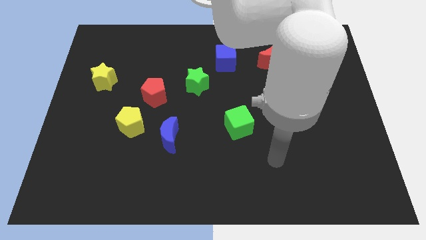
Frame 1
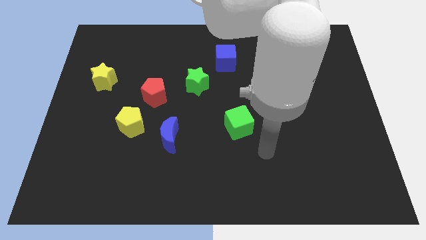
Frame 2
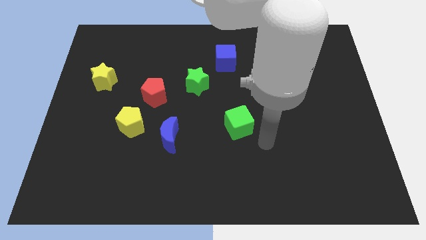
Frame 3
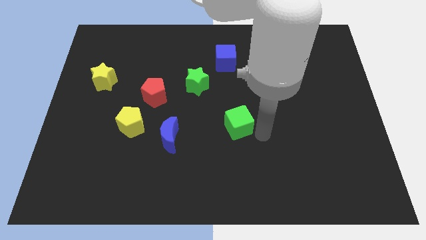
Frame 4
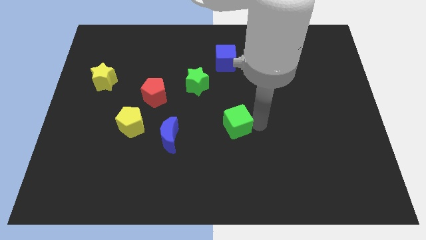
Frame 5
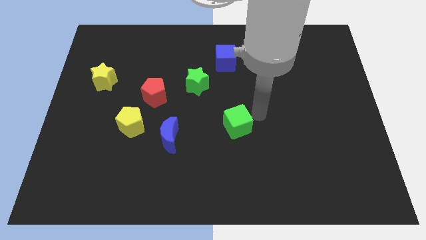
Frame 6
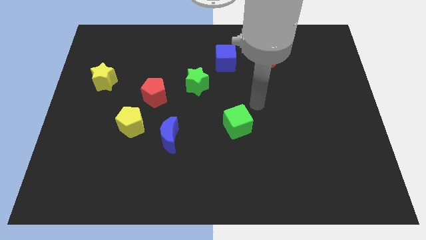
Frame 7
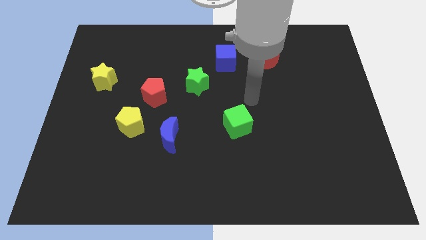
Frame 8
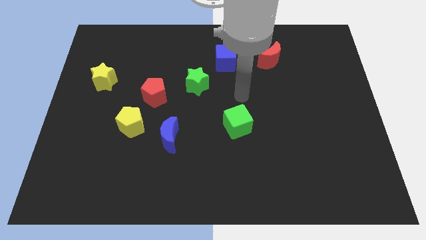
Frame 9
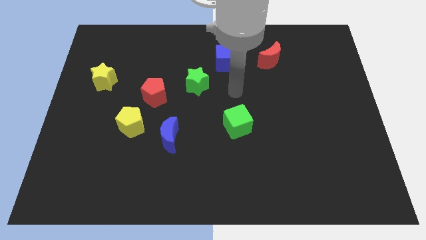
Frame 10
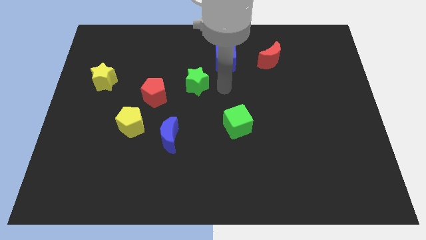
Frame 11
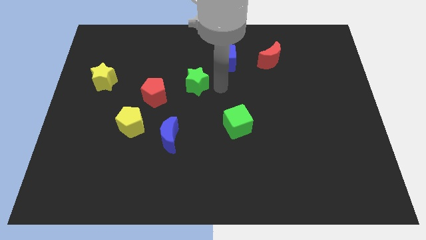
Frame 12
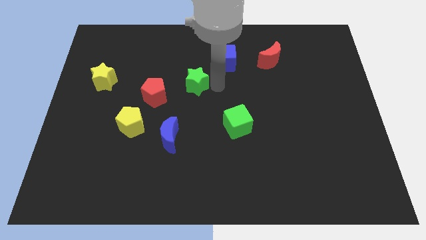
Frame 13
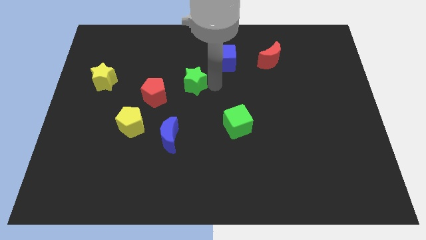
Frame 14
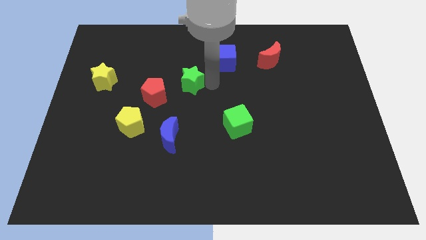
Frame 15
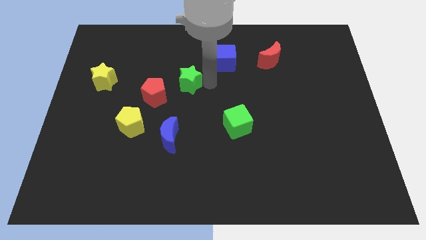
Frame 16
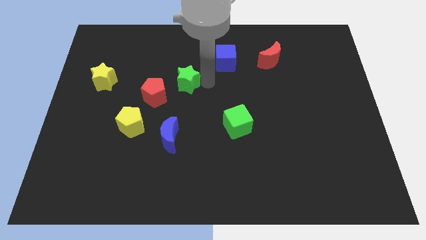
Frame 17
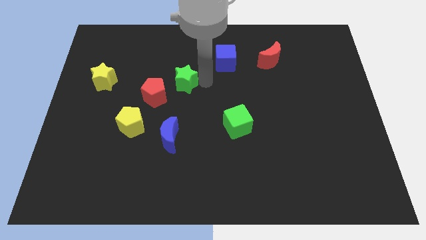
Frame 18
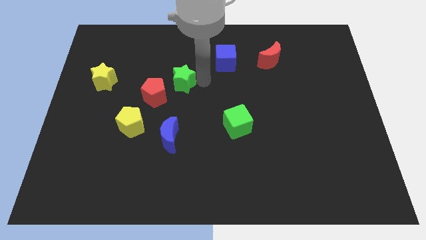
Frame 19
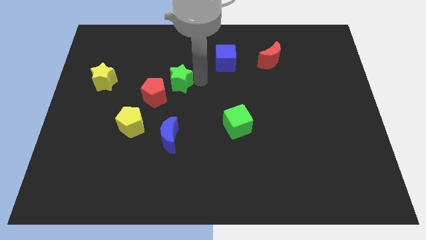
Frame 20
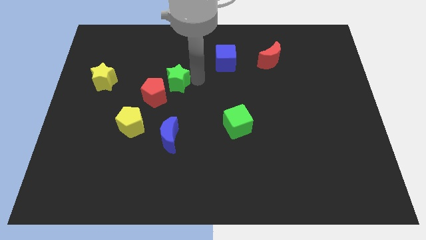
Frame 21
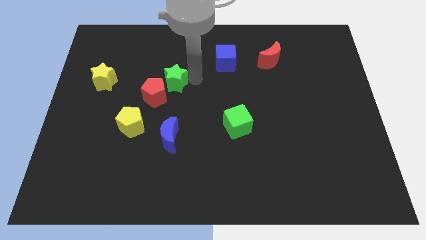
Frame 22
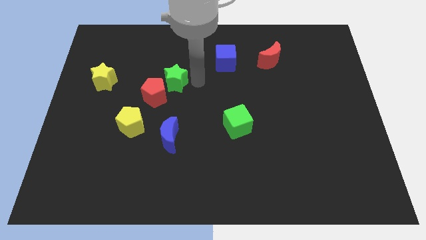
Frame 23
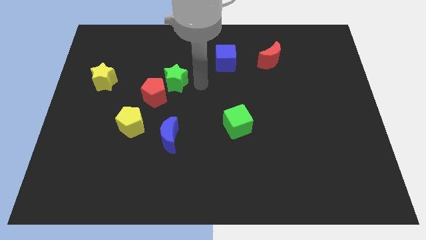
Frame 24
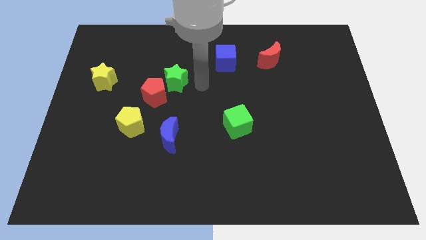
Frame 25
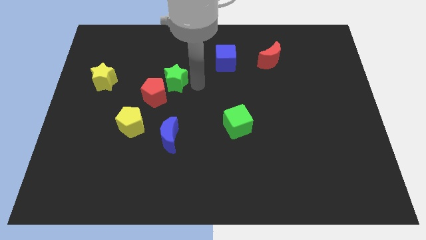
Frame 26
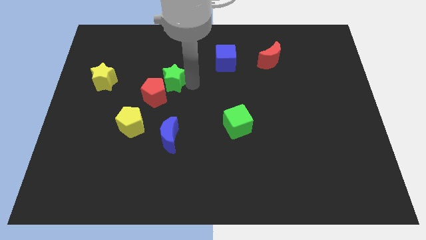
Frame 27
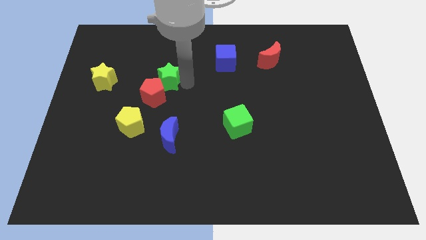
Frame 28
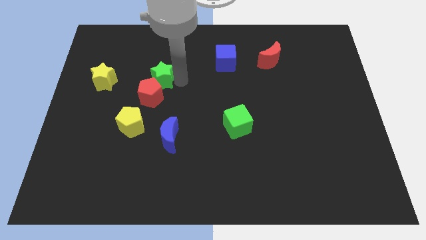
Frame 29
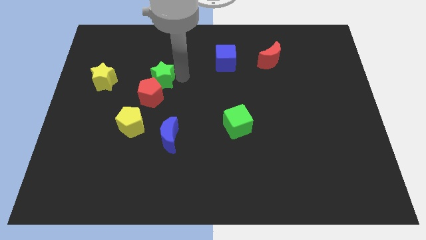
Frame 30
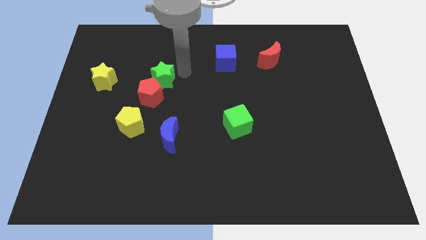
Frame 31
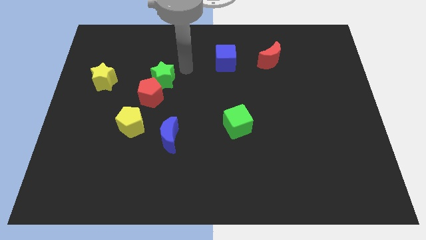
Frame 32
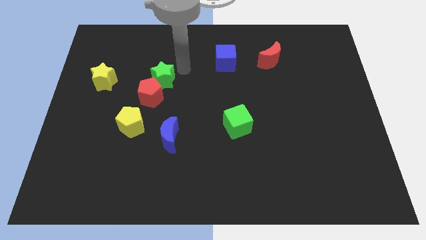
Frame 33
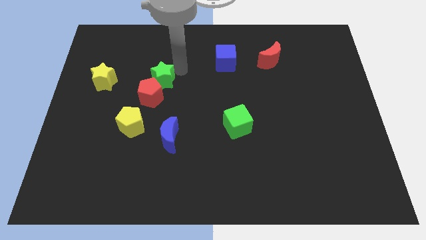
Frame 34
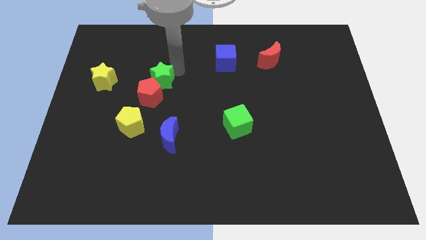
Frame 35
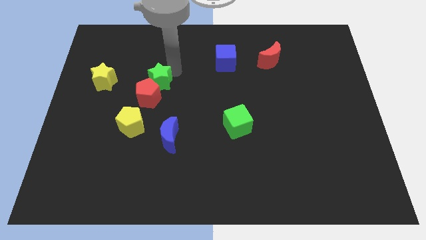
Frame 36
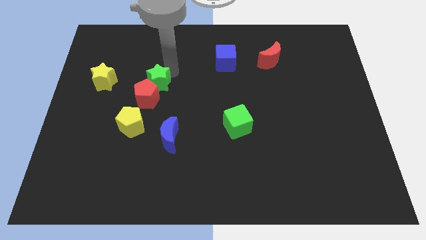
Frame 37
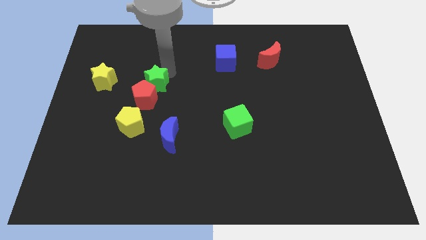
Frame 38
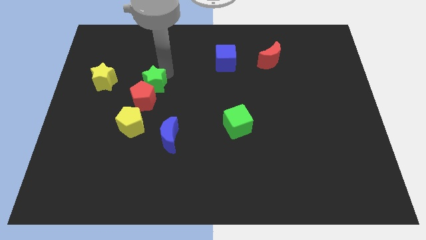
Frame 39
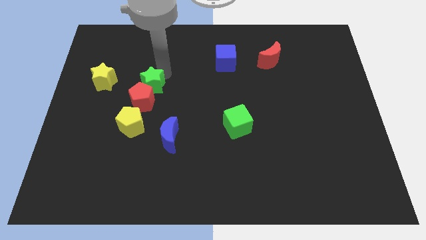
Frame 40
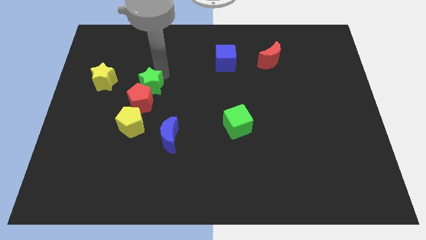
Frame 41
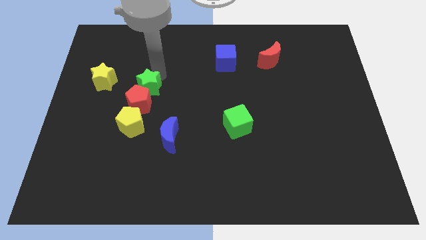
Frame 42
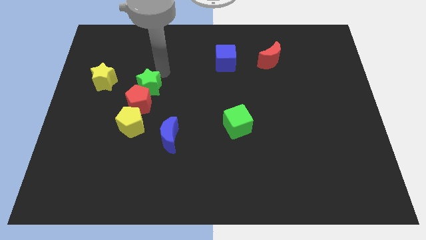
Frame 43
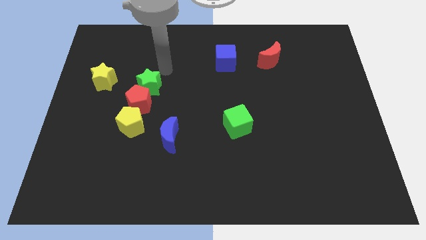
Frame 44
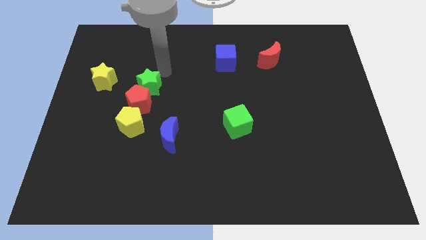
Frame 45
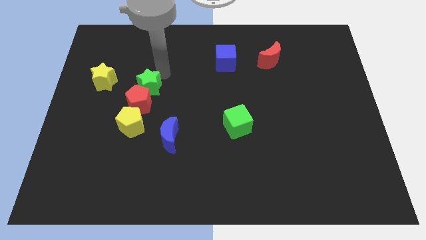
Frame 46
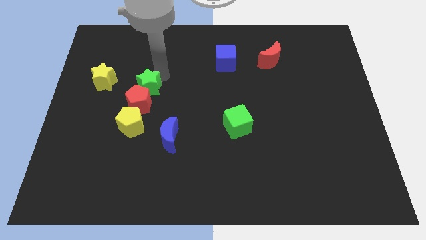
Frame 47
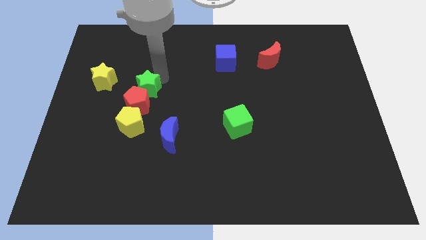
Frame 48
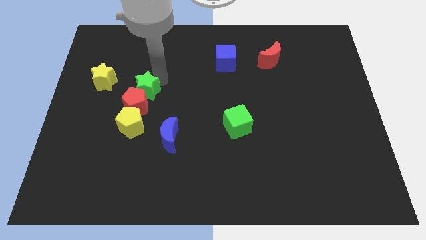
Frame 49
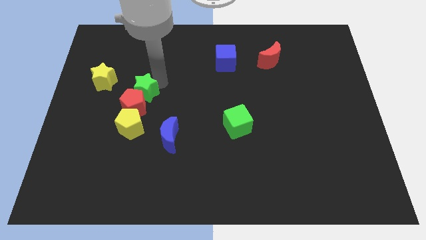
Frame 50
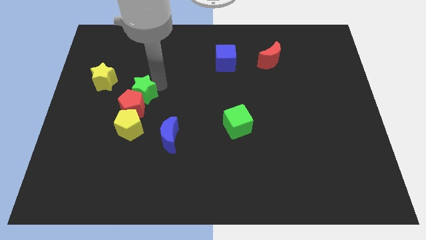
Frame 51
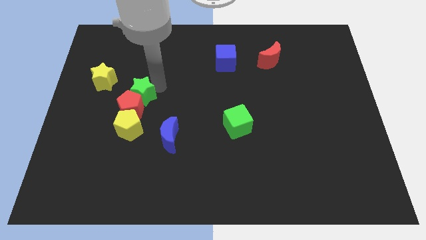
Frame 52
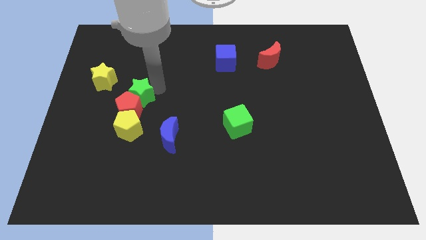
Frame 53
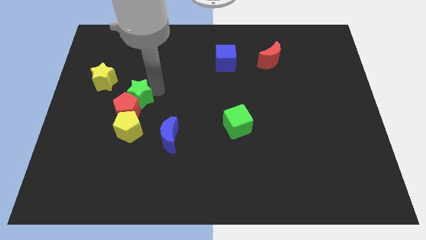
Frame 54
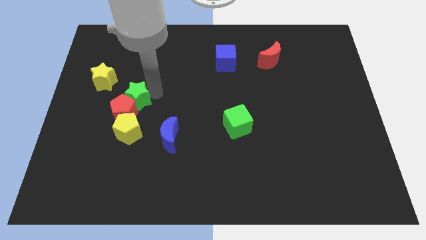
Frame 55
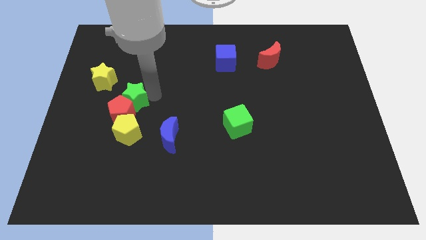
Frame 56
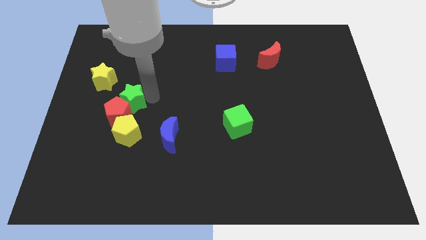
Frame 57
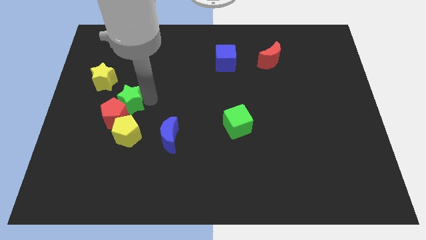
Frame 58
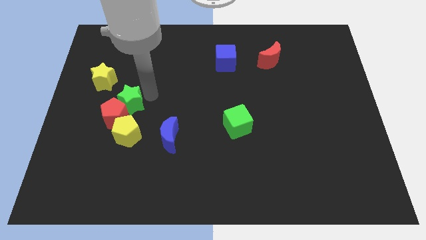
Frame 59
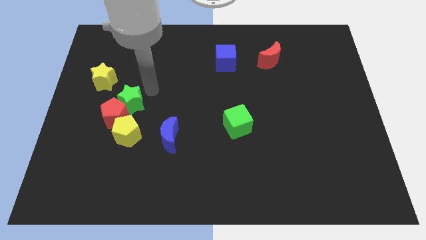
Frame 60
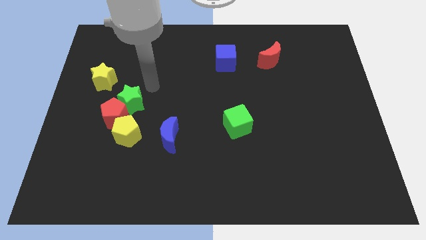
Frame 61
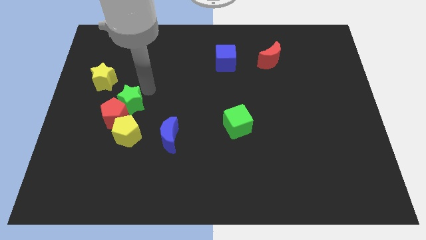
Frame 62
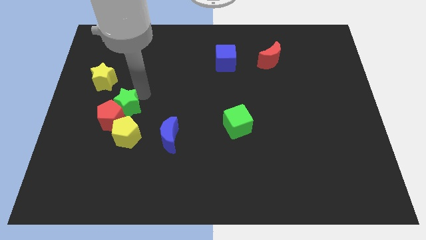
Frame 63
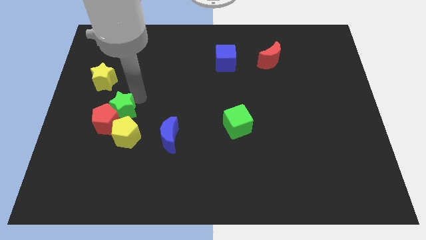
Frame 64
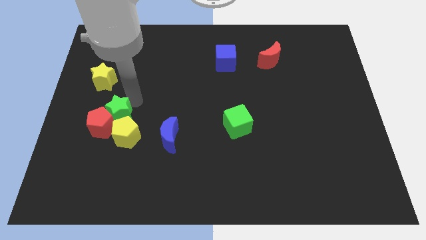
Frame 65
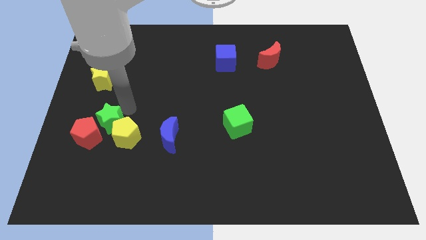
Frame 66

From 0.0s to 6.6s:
move the green star to the left side of the yellow pentagon

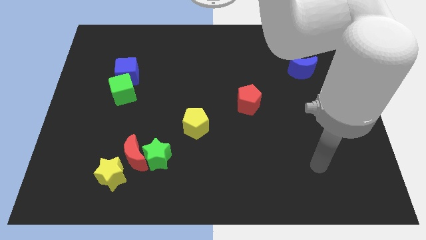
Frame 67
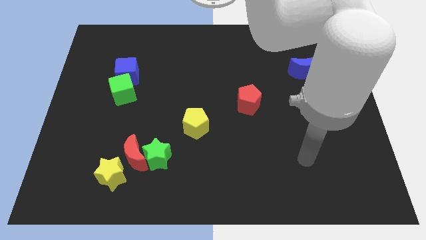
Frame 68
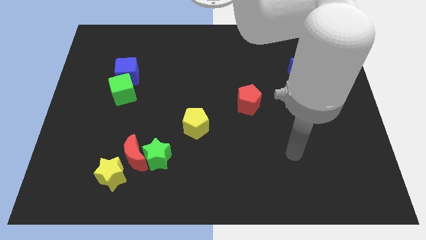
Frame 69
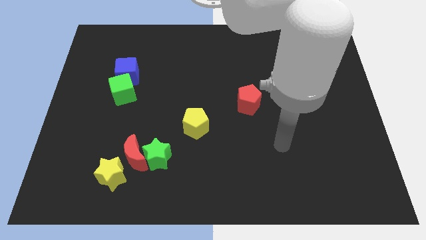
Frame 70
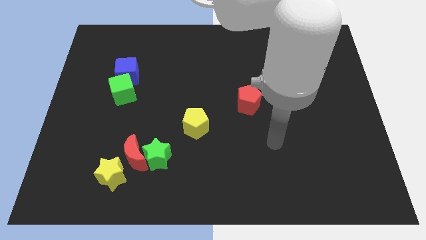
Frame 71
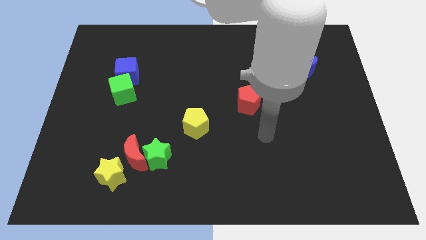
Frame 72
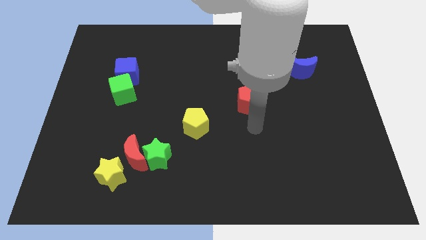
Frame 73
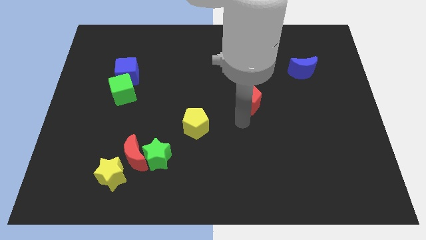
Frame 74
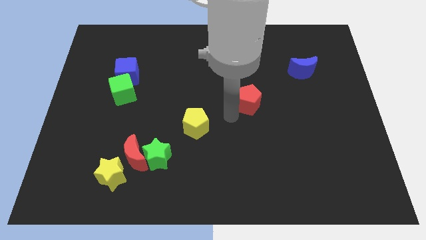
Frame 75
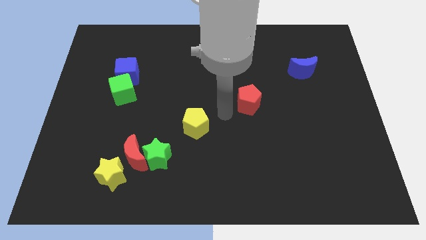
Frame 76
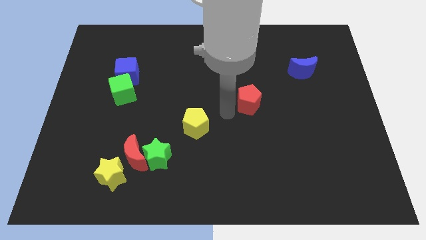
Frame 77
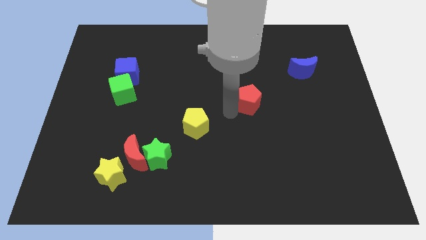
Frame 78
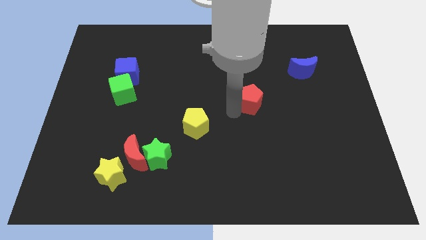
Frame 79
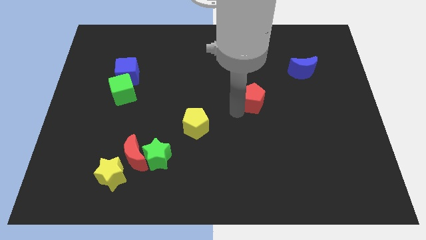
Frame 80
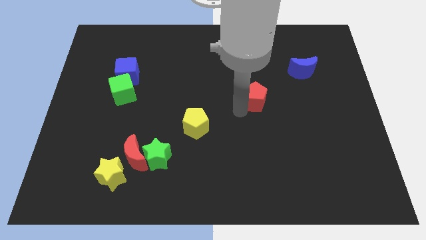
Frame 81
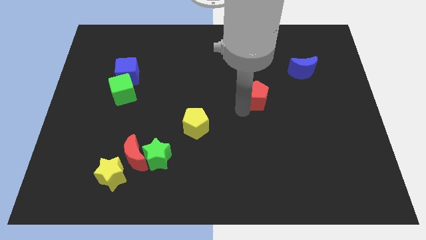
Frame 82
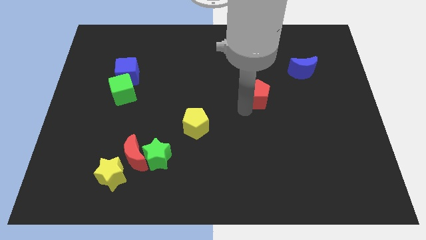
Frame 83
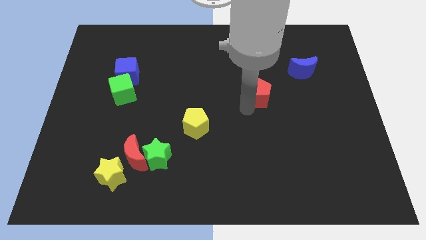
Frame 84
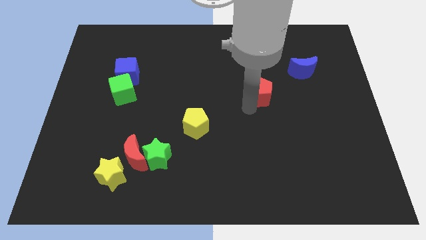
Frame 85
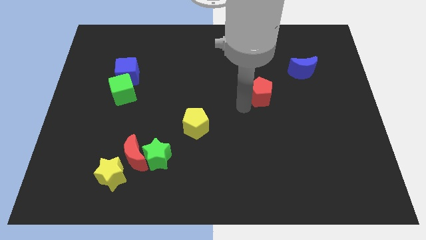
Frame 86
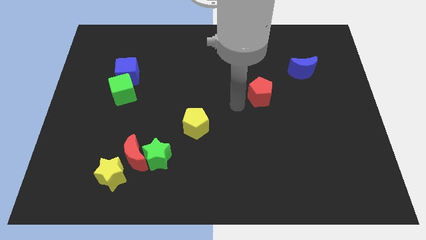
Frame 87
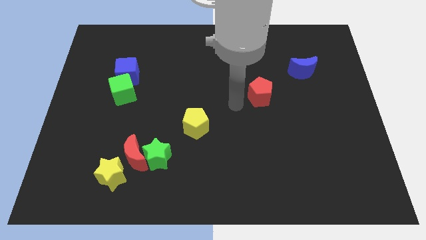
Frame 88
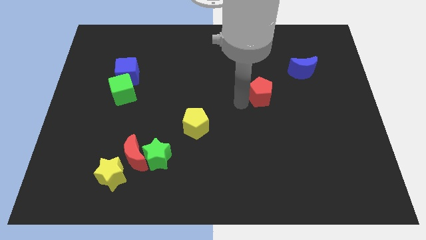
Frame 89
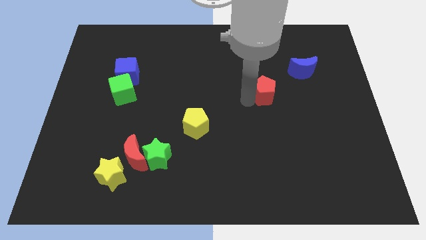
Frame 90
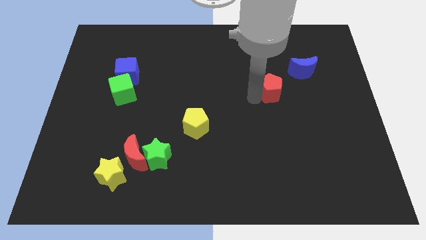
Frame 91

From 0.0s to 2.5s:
push the red pentagon to the bottom left of the blue moon
